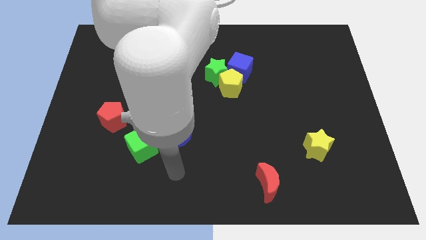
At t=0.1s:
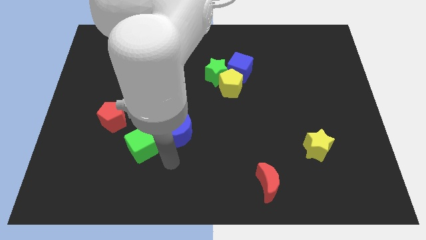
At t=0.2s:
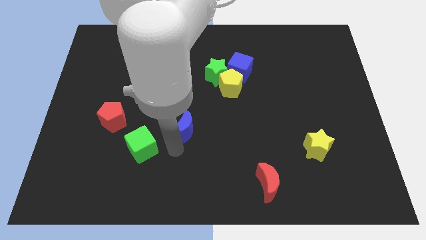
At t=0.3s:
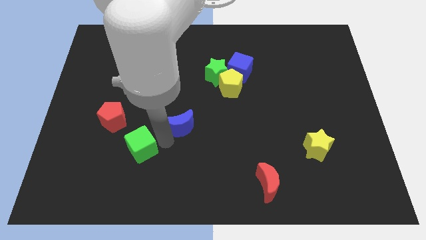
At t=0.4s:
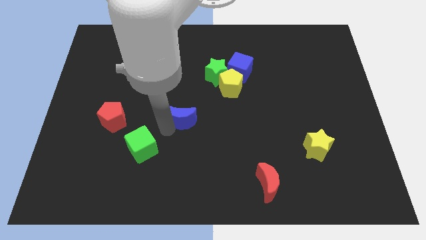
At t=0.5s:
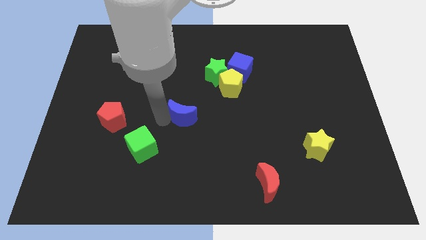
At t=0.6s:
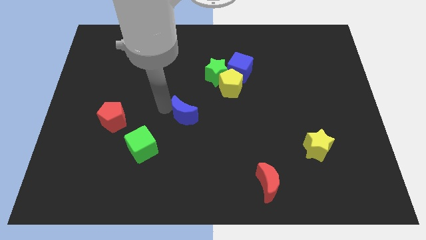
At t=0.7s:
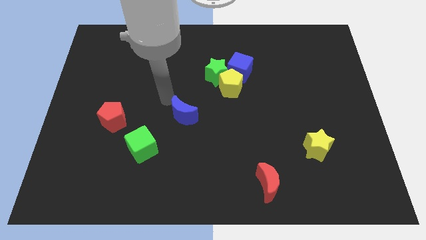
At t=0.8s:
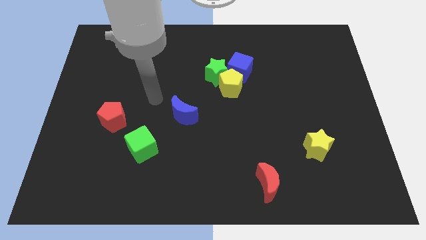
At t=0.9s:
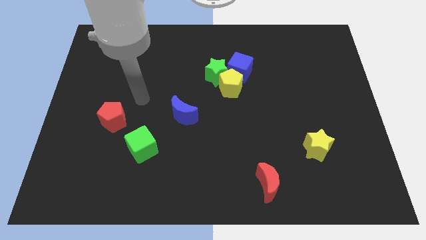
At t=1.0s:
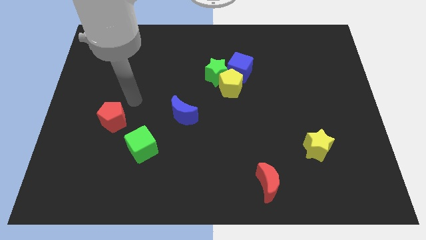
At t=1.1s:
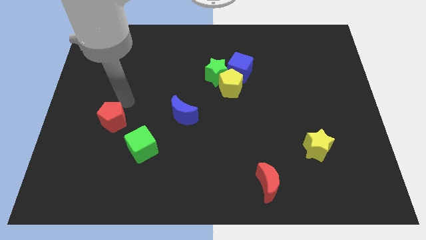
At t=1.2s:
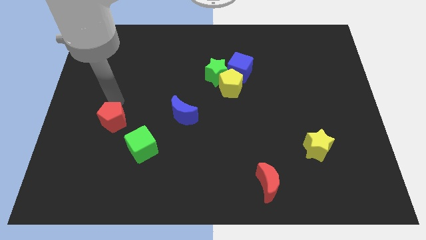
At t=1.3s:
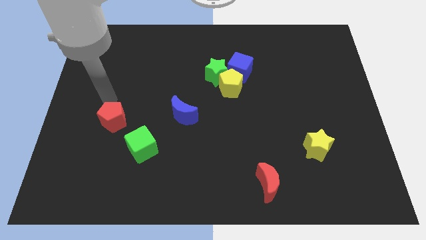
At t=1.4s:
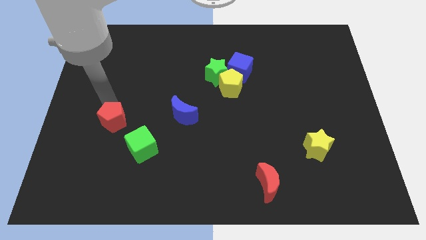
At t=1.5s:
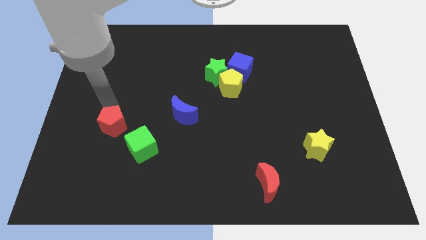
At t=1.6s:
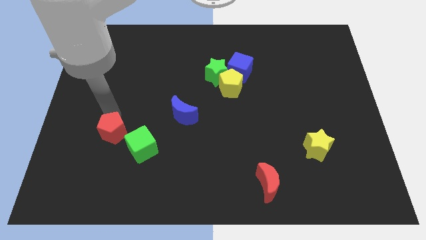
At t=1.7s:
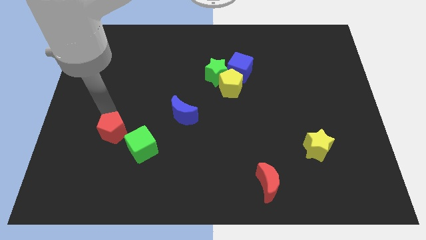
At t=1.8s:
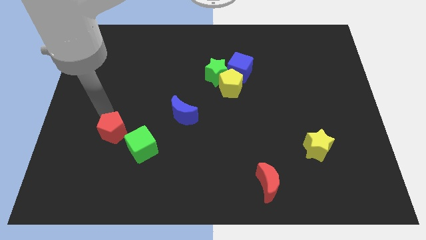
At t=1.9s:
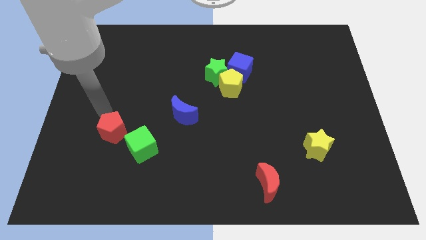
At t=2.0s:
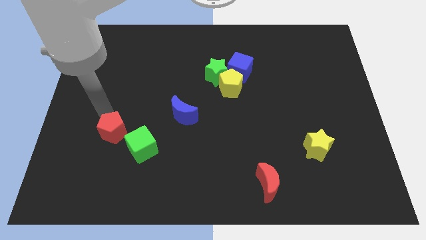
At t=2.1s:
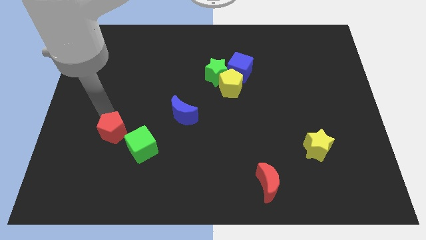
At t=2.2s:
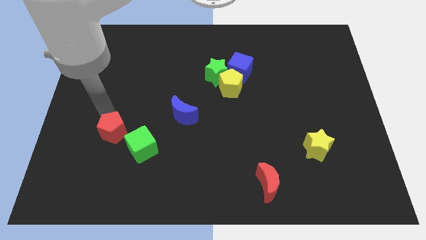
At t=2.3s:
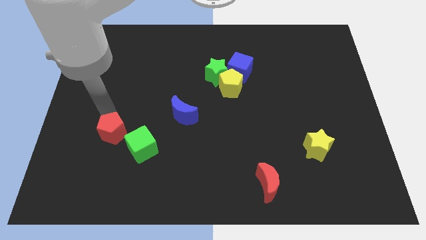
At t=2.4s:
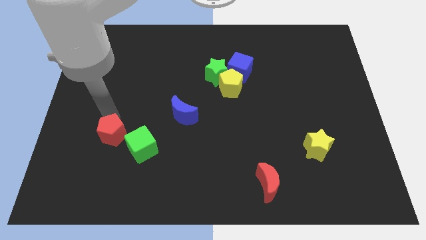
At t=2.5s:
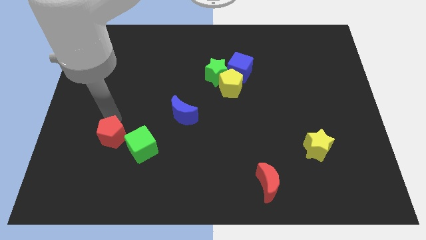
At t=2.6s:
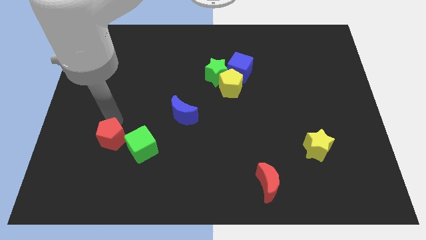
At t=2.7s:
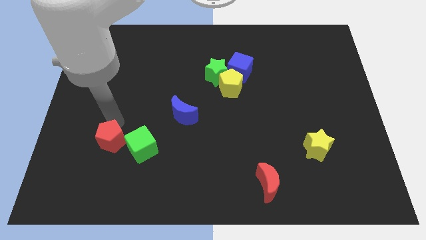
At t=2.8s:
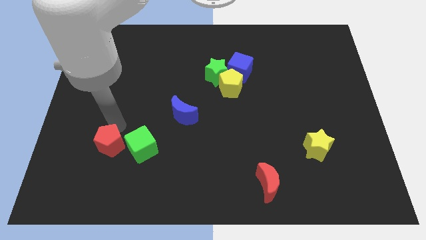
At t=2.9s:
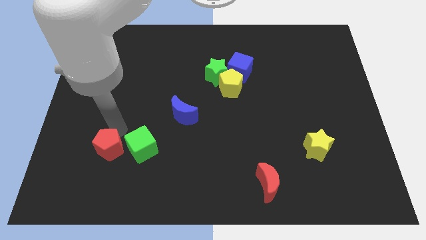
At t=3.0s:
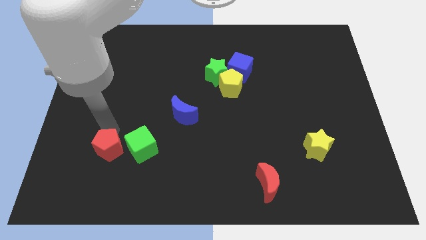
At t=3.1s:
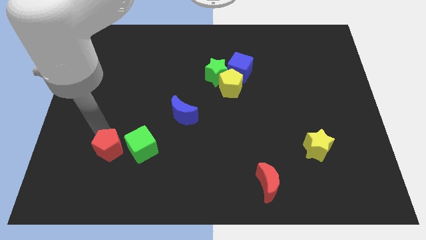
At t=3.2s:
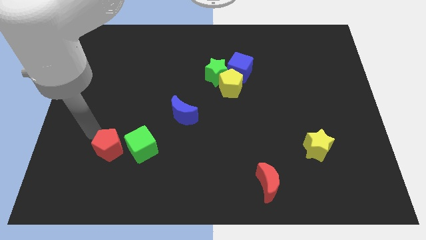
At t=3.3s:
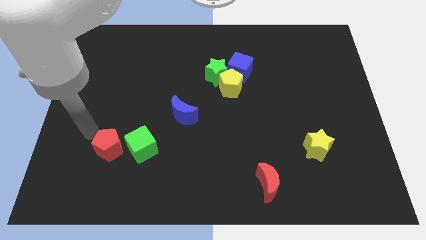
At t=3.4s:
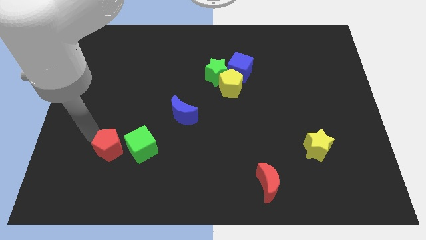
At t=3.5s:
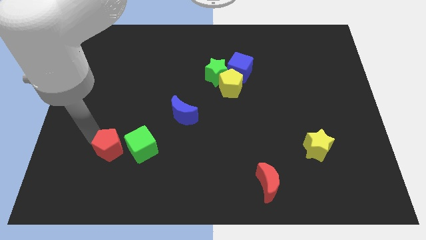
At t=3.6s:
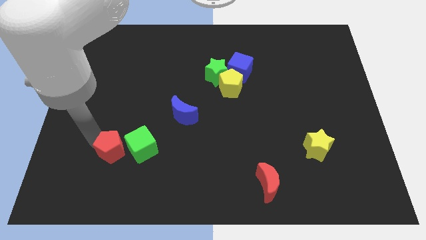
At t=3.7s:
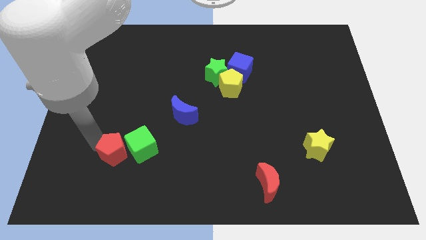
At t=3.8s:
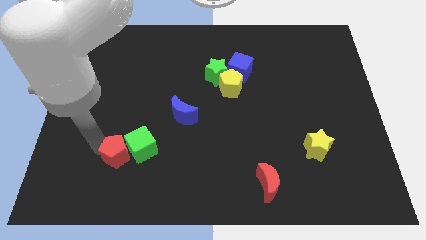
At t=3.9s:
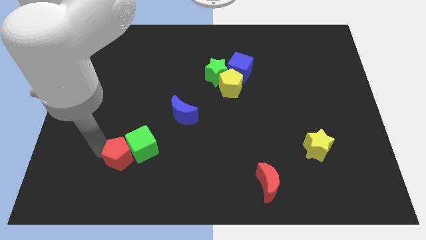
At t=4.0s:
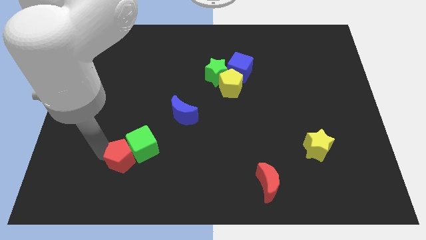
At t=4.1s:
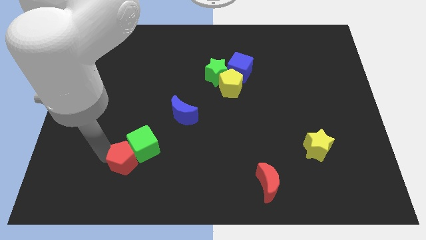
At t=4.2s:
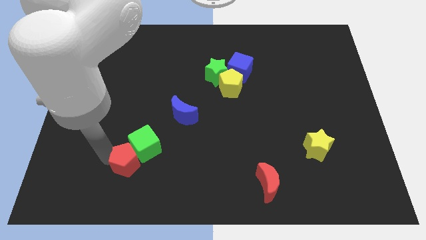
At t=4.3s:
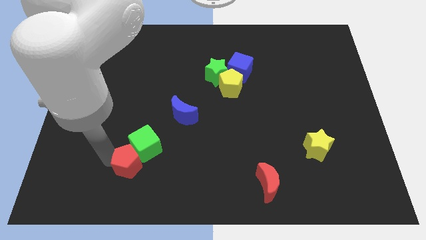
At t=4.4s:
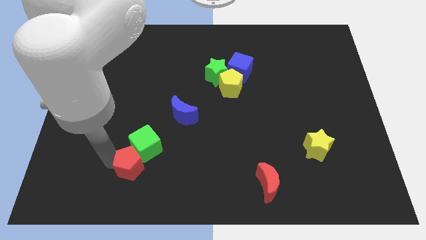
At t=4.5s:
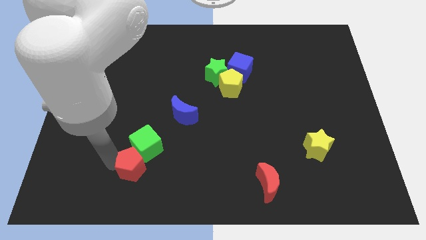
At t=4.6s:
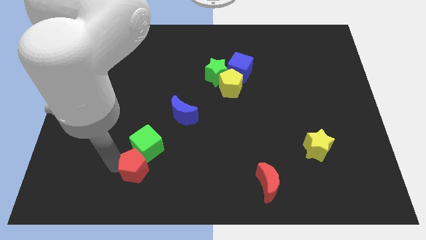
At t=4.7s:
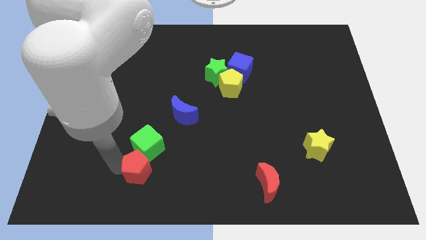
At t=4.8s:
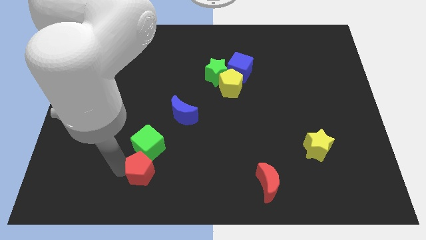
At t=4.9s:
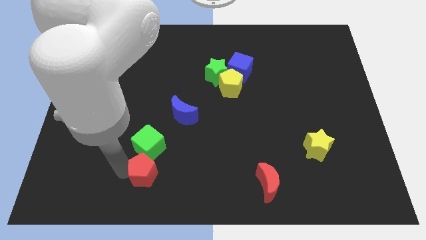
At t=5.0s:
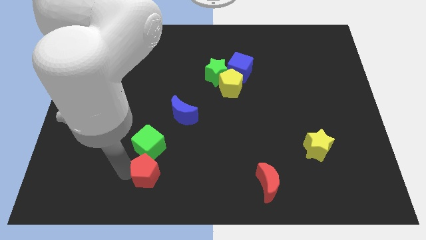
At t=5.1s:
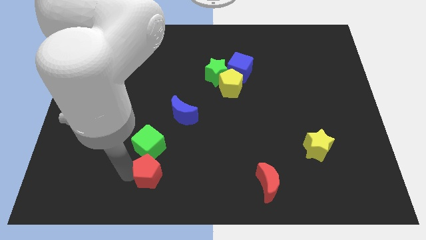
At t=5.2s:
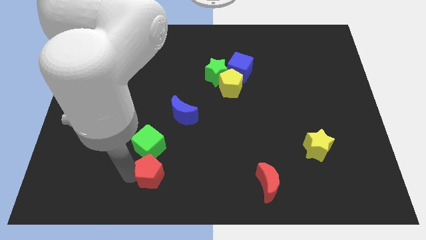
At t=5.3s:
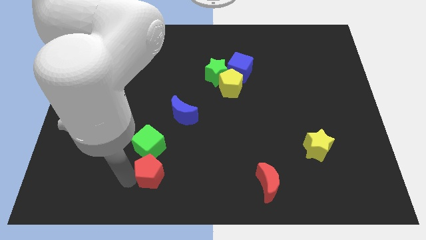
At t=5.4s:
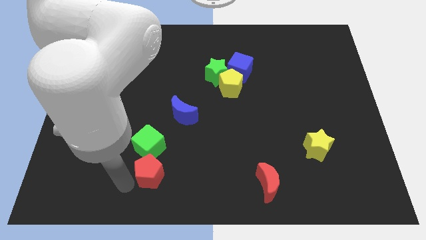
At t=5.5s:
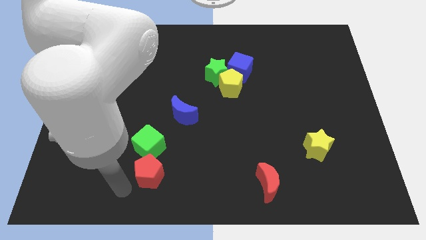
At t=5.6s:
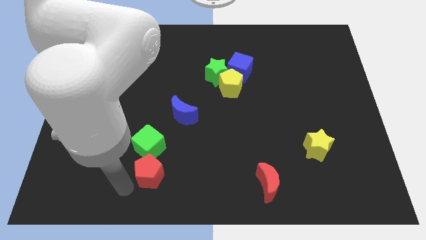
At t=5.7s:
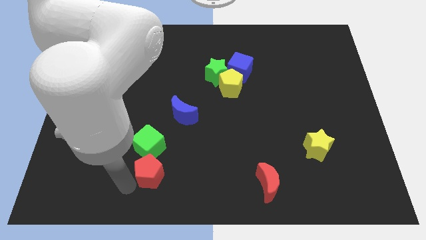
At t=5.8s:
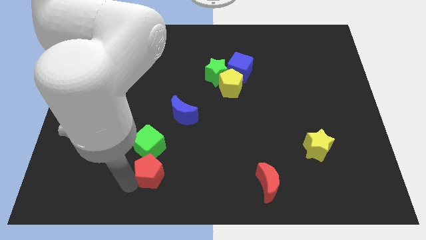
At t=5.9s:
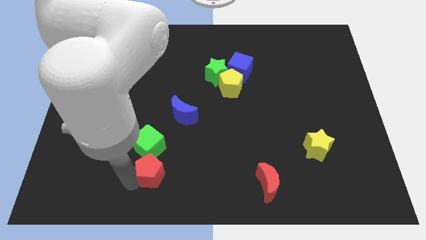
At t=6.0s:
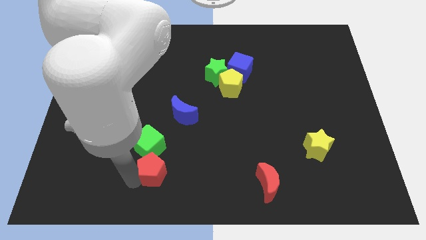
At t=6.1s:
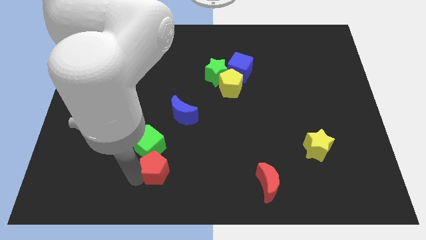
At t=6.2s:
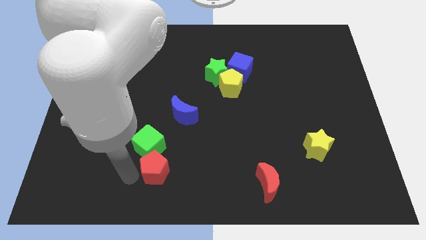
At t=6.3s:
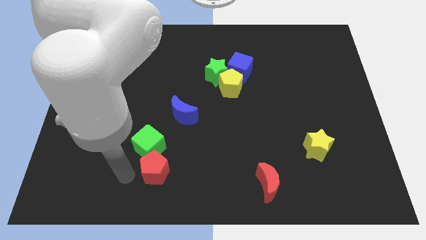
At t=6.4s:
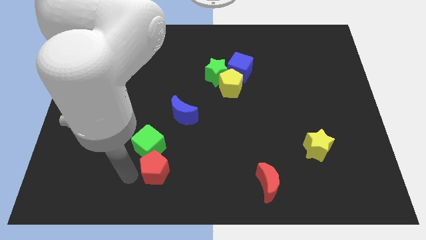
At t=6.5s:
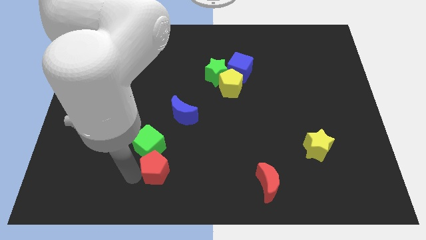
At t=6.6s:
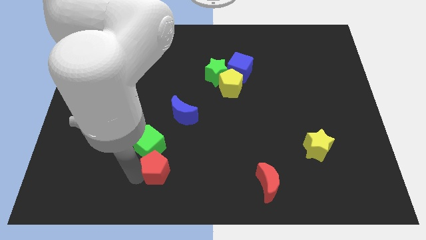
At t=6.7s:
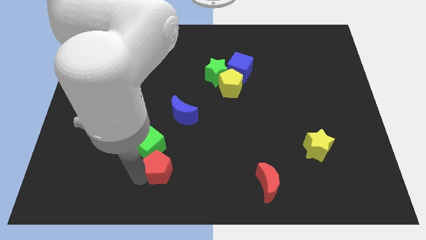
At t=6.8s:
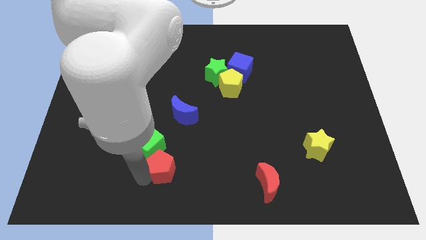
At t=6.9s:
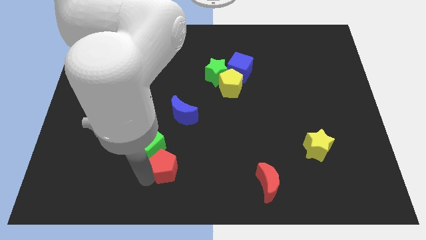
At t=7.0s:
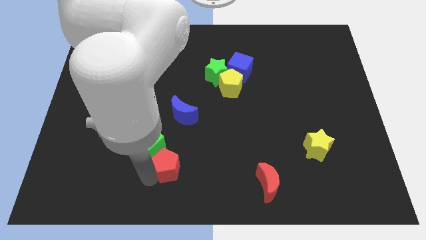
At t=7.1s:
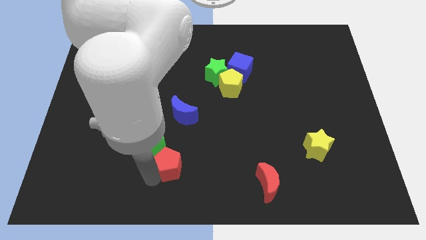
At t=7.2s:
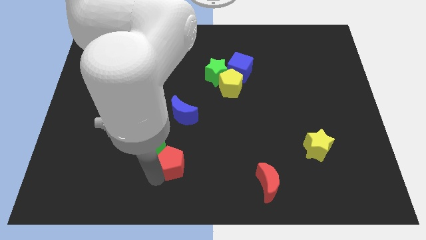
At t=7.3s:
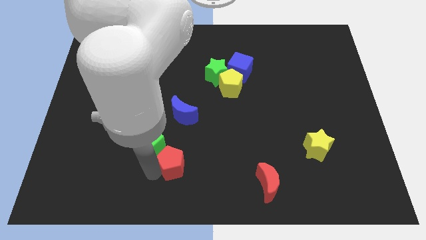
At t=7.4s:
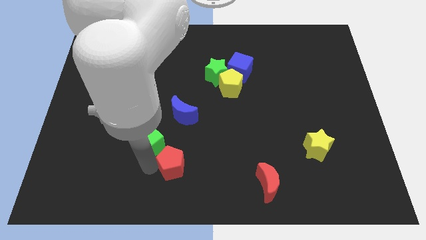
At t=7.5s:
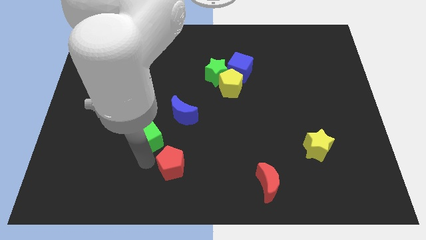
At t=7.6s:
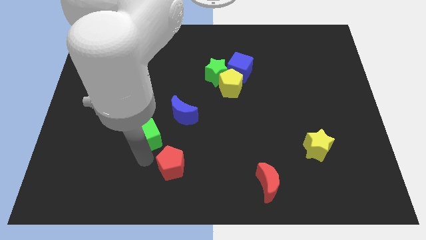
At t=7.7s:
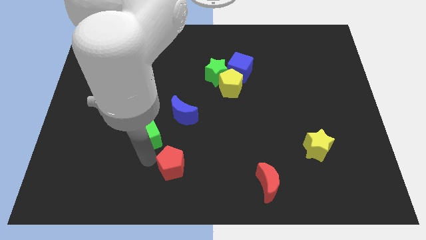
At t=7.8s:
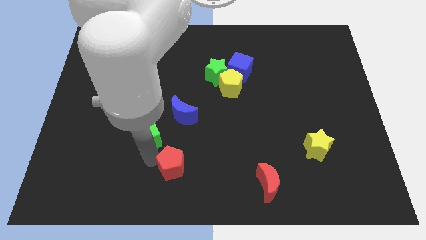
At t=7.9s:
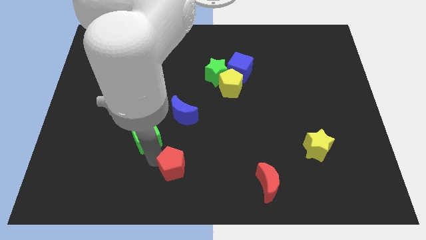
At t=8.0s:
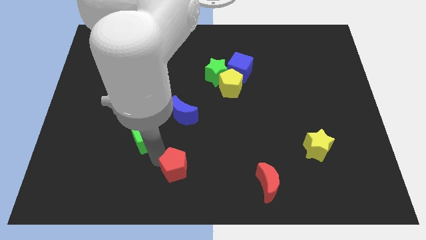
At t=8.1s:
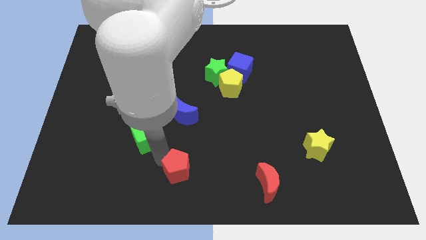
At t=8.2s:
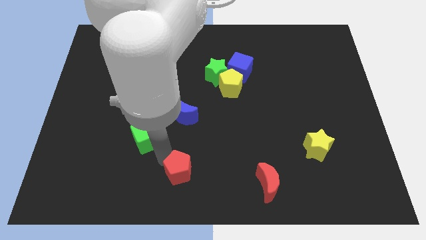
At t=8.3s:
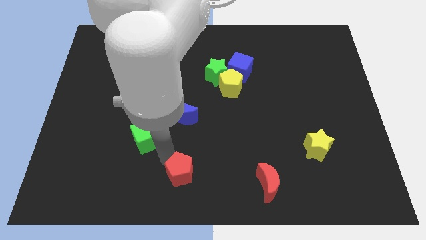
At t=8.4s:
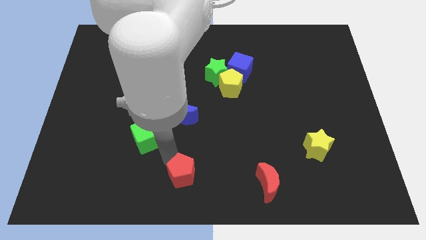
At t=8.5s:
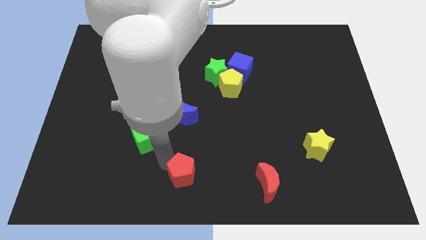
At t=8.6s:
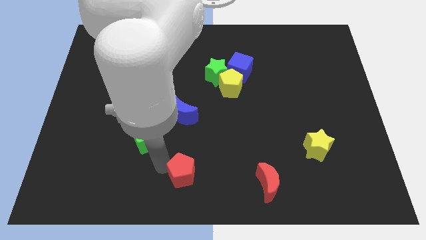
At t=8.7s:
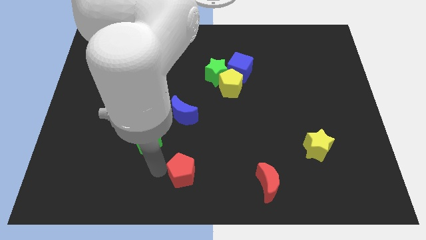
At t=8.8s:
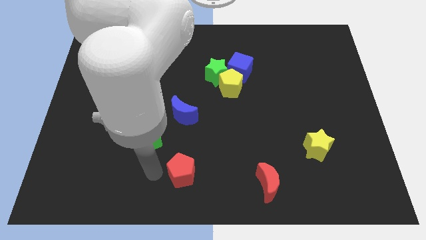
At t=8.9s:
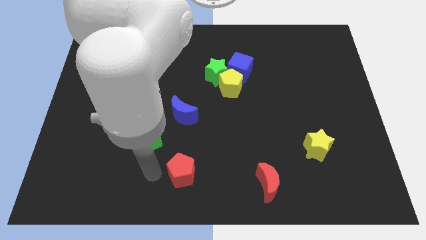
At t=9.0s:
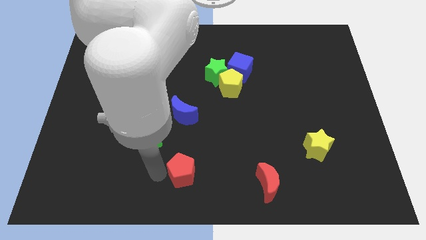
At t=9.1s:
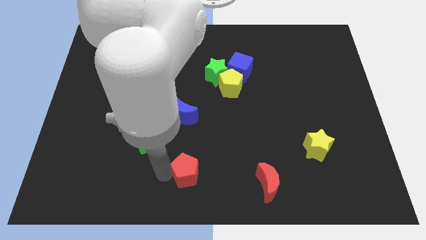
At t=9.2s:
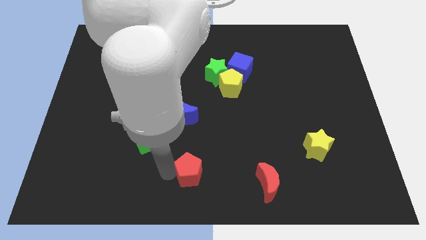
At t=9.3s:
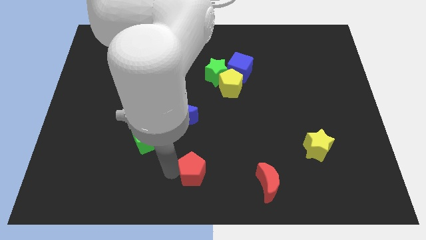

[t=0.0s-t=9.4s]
move the red pentagon to the left side of the red moon
